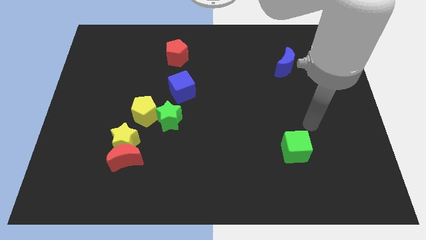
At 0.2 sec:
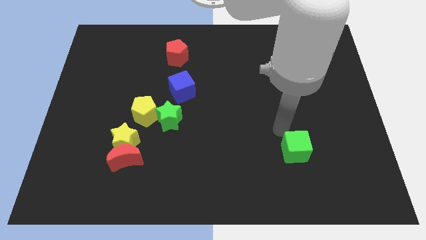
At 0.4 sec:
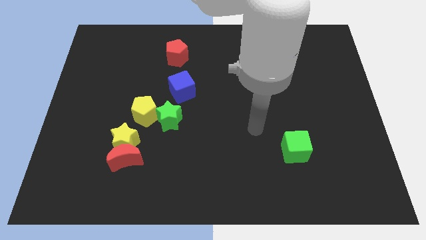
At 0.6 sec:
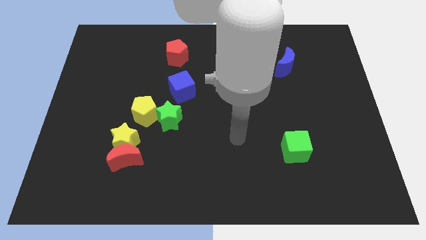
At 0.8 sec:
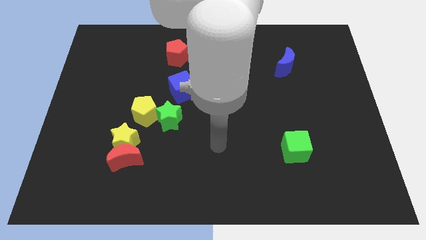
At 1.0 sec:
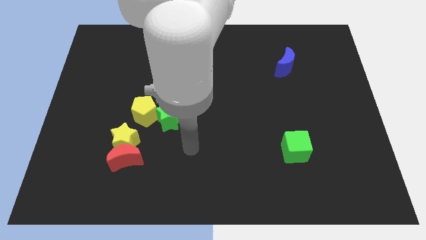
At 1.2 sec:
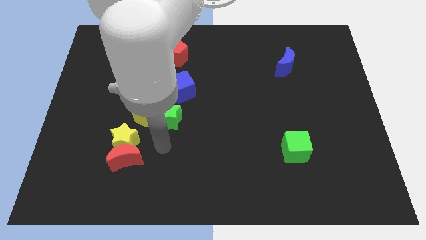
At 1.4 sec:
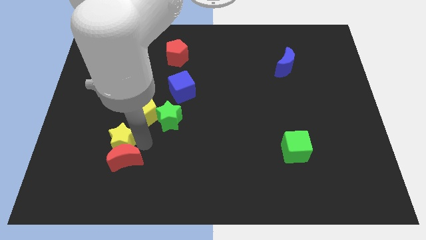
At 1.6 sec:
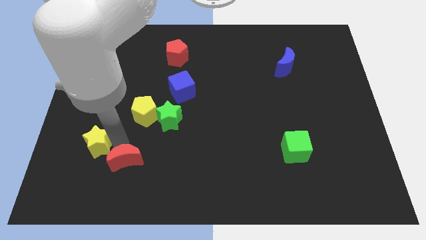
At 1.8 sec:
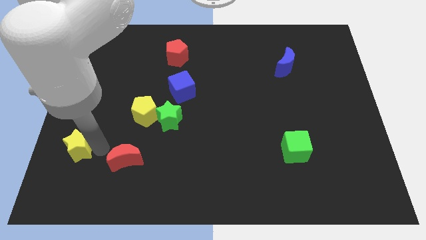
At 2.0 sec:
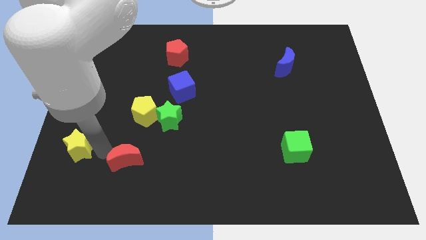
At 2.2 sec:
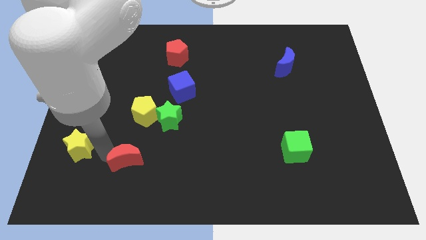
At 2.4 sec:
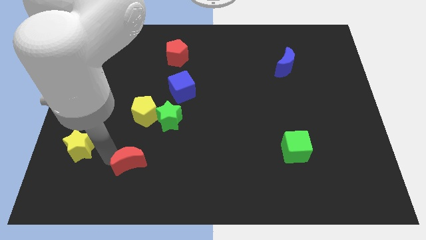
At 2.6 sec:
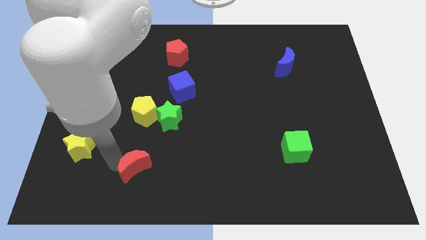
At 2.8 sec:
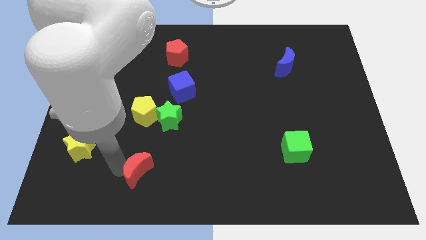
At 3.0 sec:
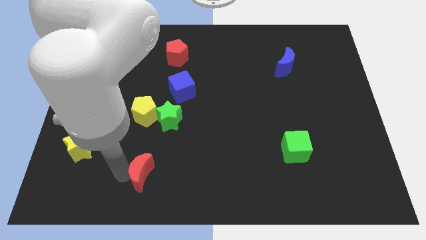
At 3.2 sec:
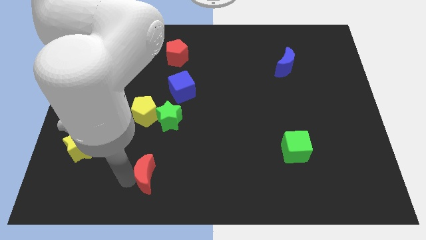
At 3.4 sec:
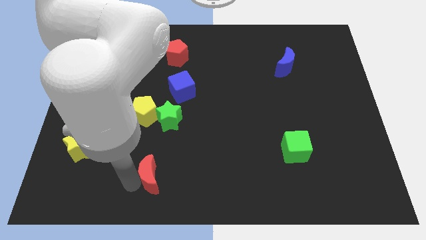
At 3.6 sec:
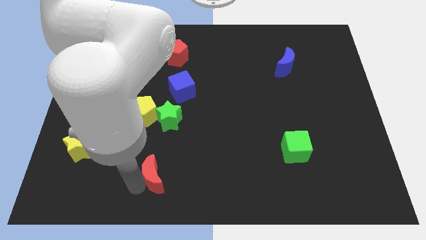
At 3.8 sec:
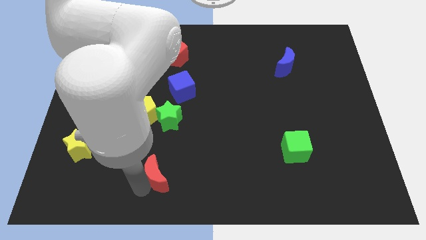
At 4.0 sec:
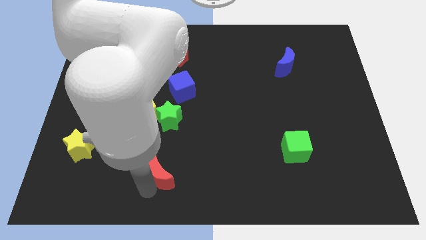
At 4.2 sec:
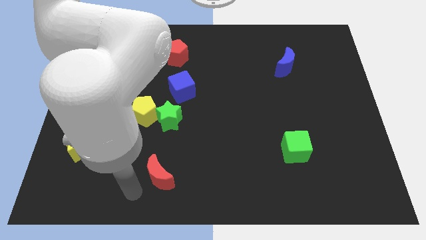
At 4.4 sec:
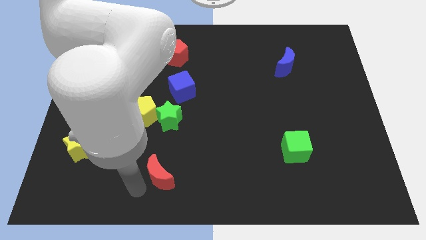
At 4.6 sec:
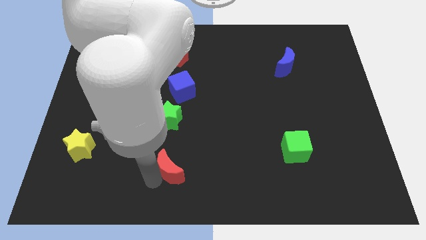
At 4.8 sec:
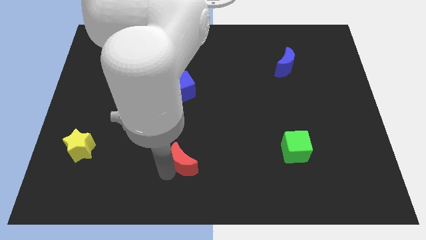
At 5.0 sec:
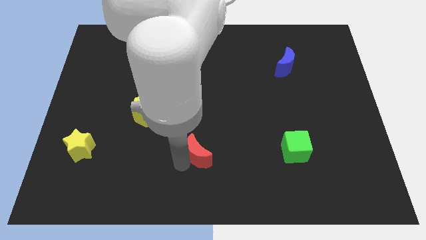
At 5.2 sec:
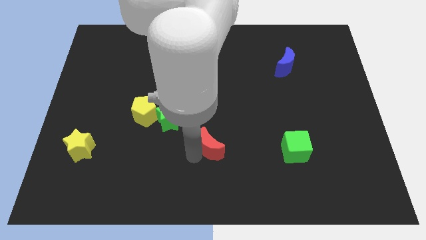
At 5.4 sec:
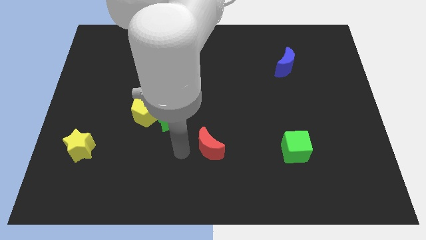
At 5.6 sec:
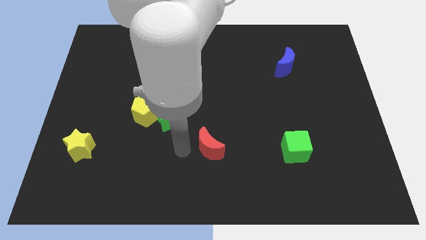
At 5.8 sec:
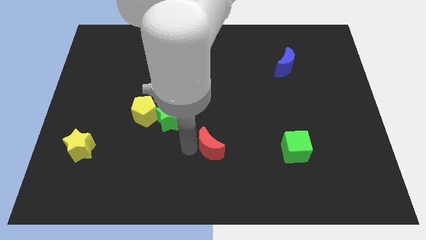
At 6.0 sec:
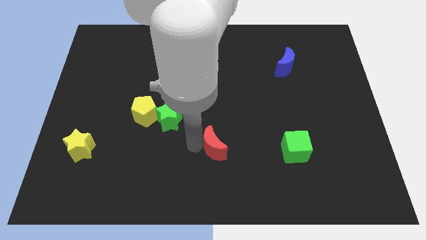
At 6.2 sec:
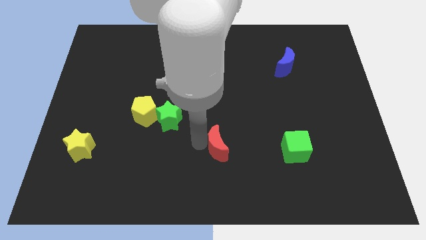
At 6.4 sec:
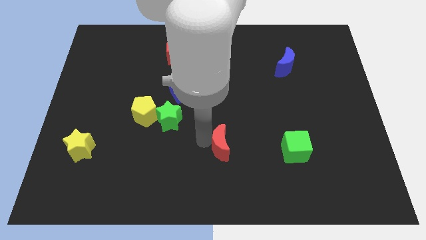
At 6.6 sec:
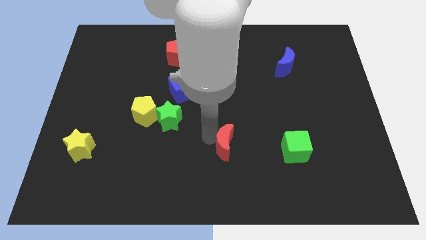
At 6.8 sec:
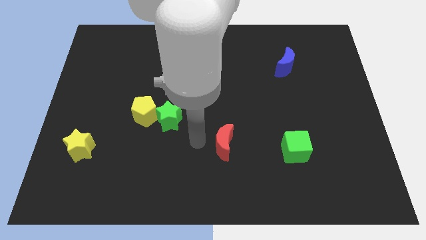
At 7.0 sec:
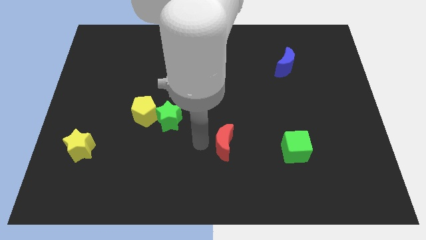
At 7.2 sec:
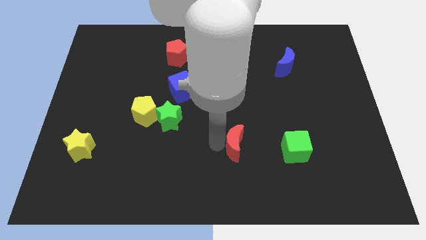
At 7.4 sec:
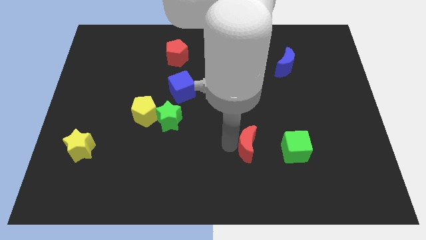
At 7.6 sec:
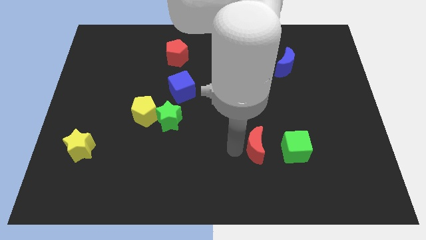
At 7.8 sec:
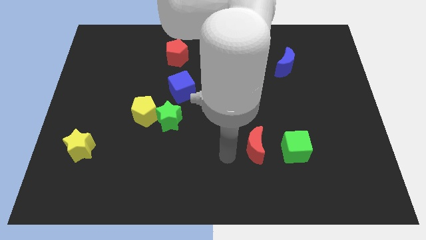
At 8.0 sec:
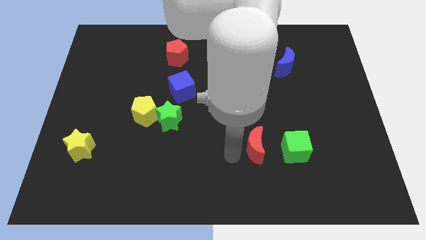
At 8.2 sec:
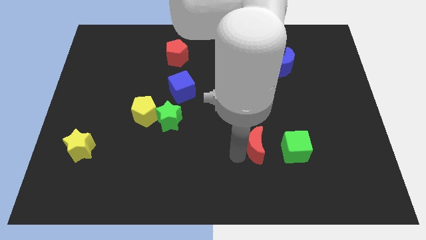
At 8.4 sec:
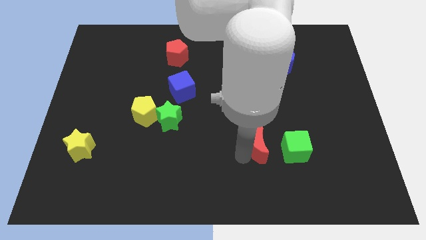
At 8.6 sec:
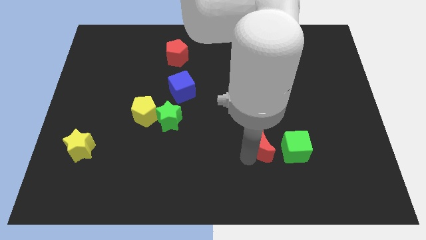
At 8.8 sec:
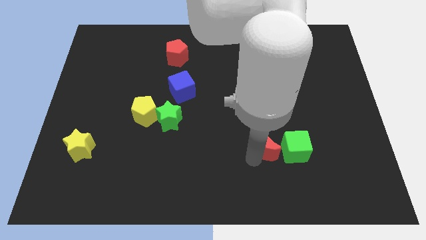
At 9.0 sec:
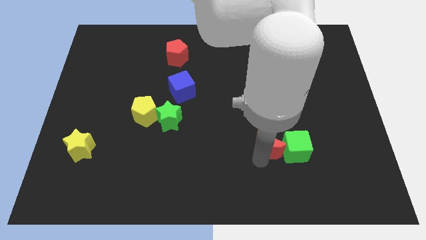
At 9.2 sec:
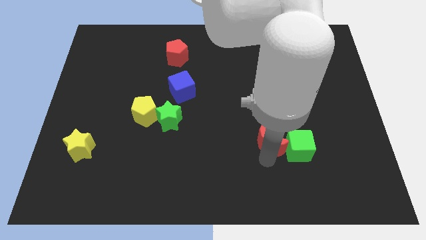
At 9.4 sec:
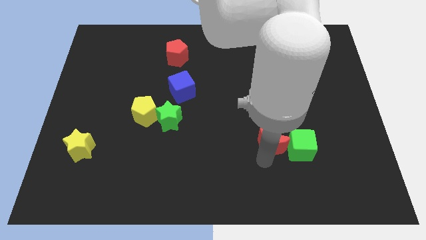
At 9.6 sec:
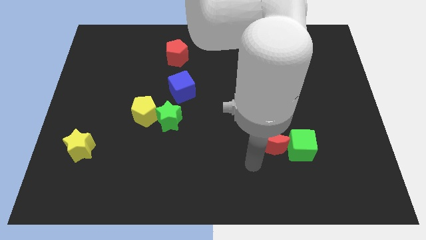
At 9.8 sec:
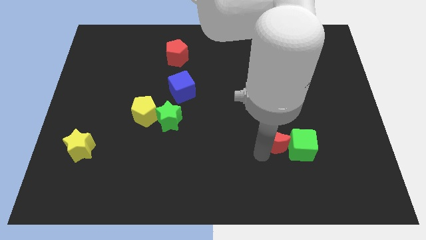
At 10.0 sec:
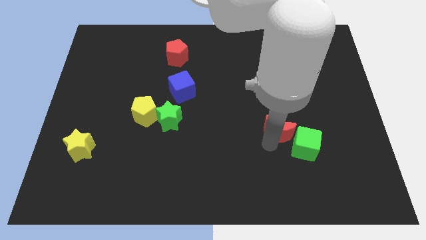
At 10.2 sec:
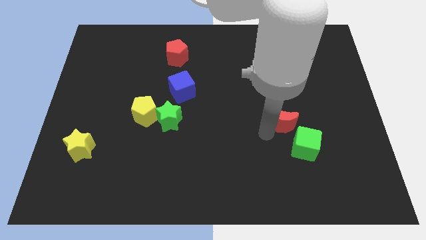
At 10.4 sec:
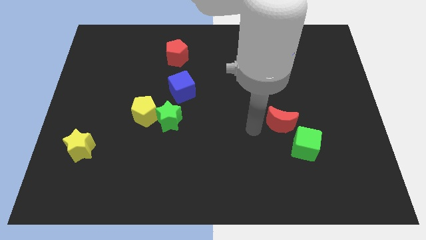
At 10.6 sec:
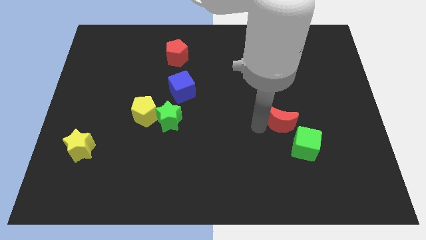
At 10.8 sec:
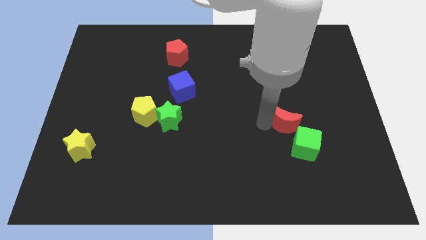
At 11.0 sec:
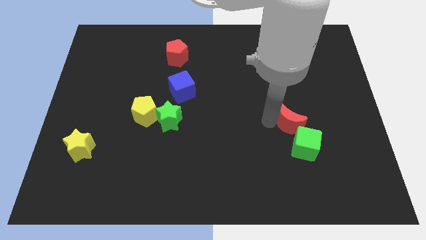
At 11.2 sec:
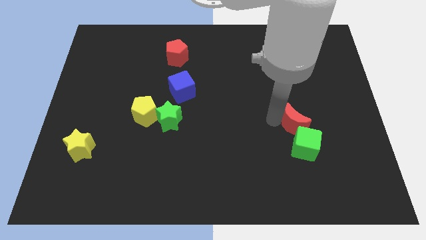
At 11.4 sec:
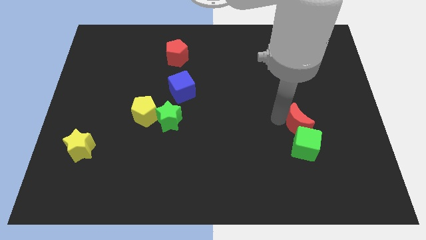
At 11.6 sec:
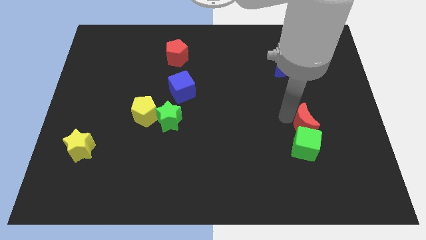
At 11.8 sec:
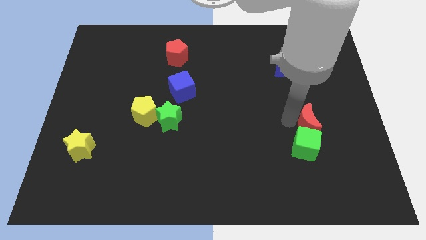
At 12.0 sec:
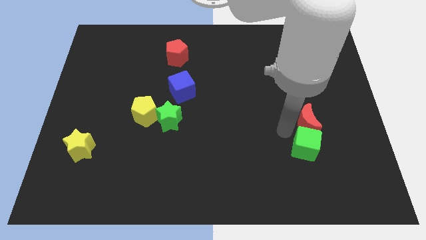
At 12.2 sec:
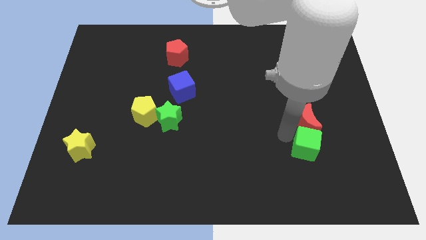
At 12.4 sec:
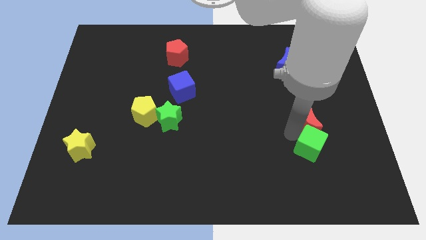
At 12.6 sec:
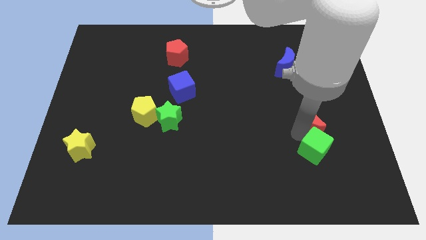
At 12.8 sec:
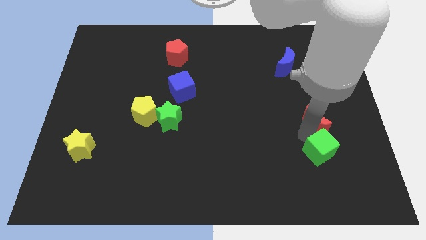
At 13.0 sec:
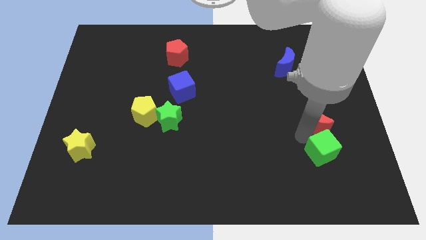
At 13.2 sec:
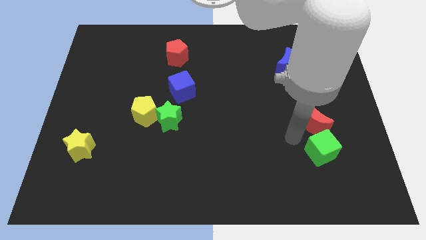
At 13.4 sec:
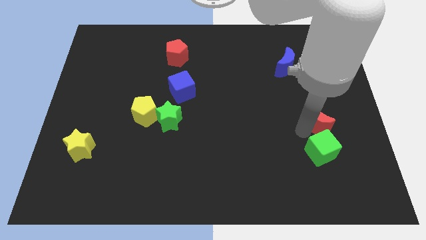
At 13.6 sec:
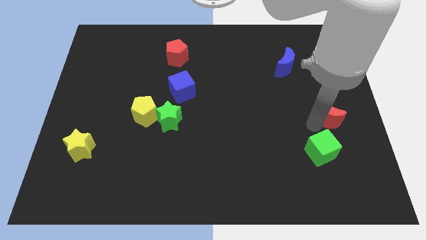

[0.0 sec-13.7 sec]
push the red moon to the center right
